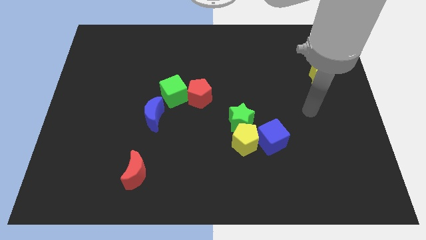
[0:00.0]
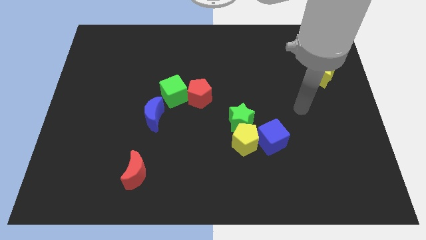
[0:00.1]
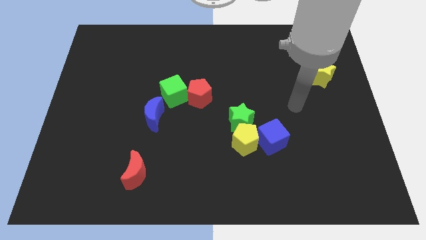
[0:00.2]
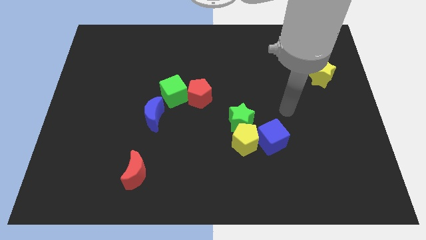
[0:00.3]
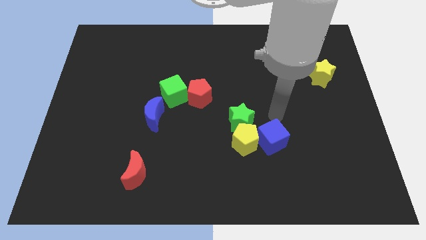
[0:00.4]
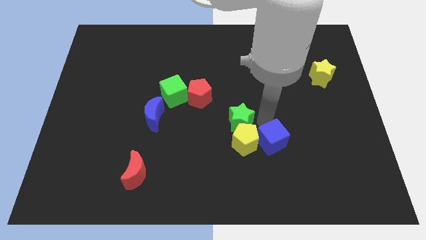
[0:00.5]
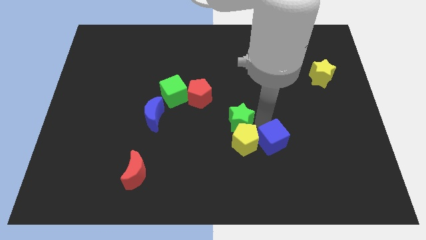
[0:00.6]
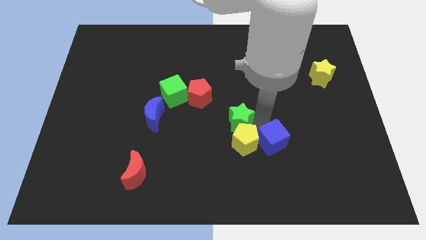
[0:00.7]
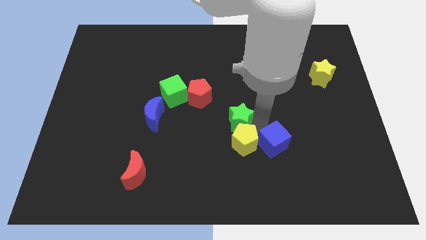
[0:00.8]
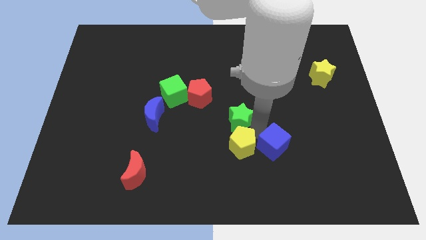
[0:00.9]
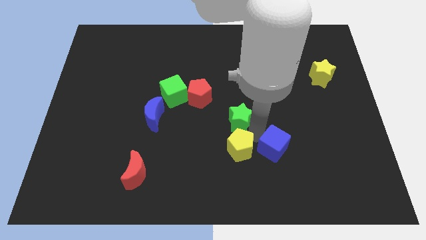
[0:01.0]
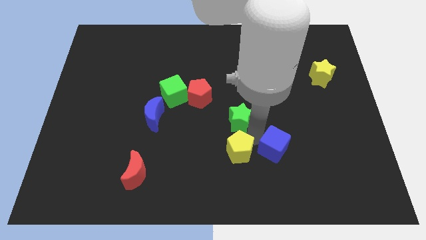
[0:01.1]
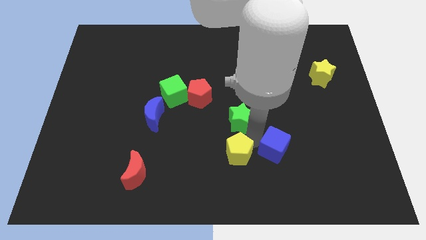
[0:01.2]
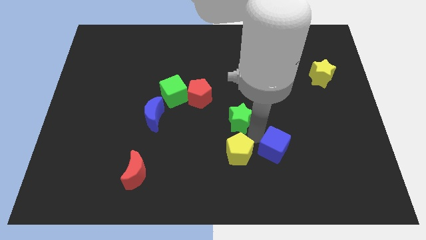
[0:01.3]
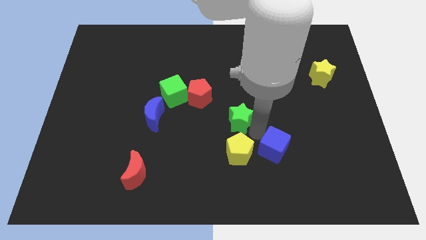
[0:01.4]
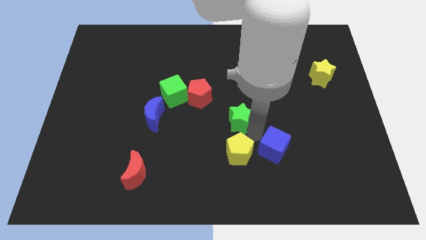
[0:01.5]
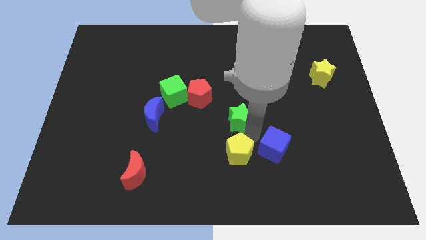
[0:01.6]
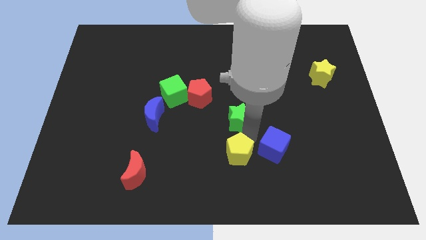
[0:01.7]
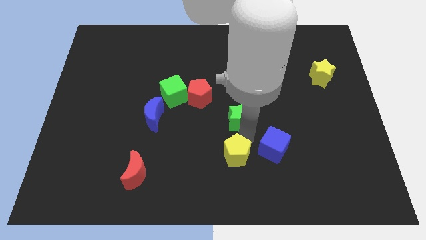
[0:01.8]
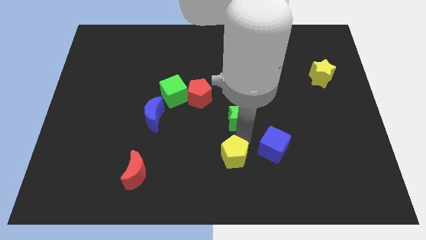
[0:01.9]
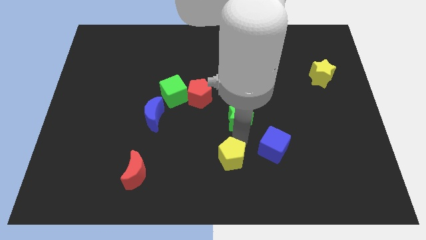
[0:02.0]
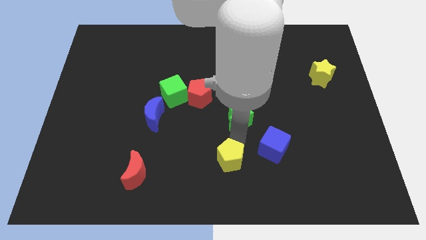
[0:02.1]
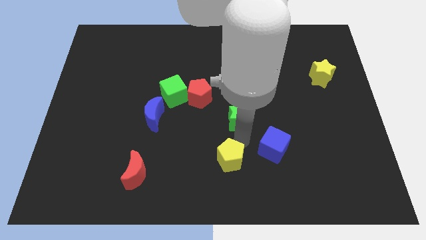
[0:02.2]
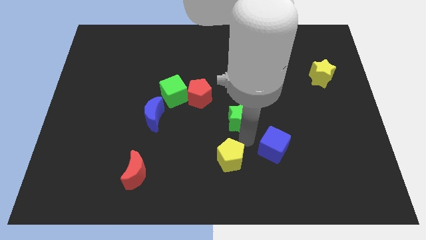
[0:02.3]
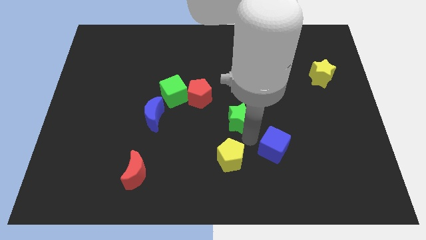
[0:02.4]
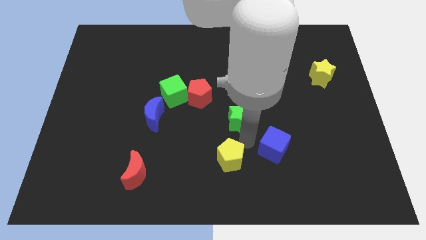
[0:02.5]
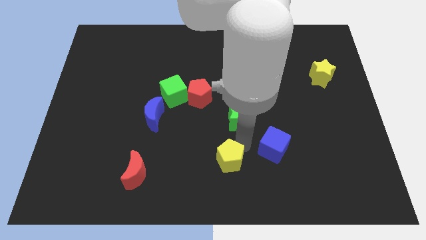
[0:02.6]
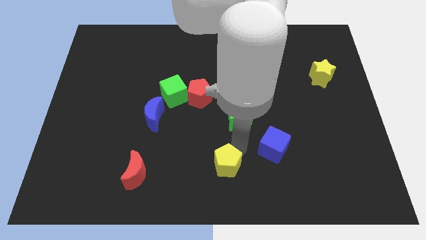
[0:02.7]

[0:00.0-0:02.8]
pull the yellow pentagon apart from the green star and blue cube

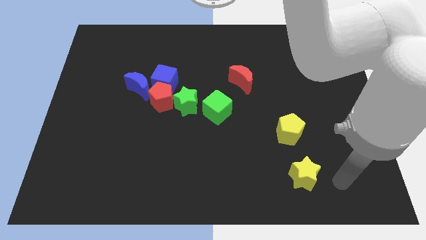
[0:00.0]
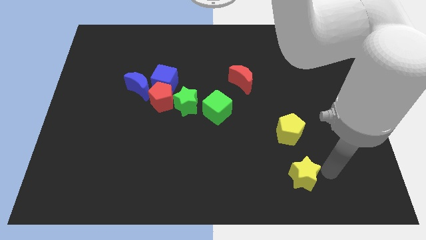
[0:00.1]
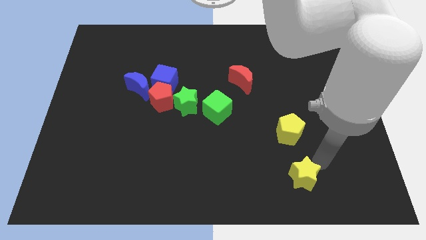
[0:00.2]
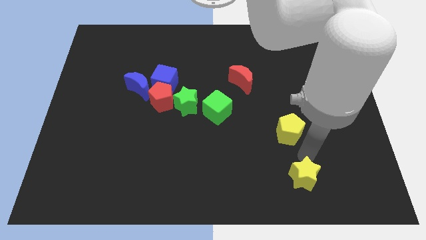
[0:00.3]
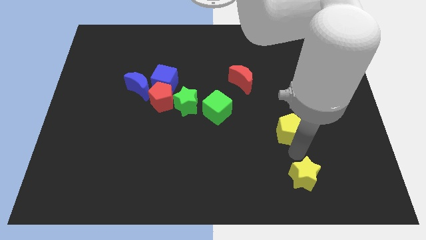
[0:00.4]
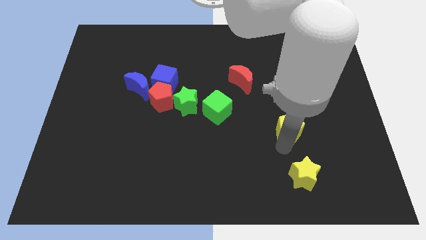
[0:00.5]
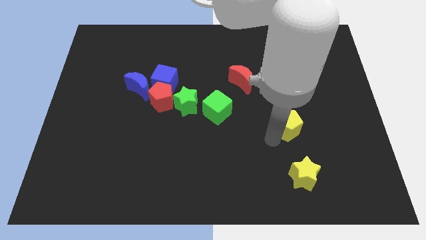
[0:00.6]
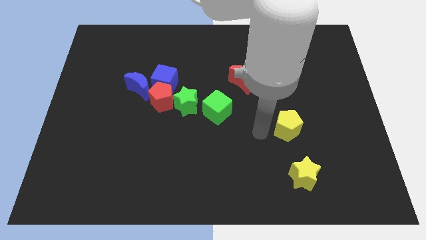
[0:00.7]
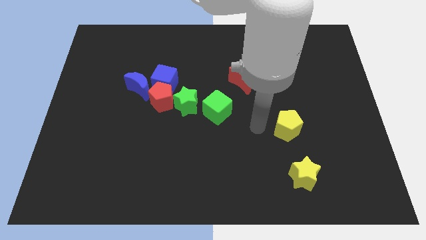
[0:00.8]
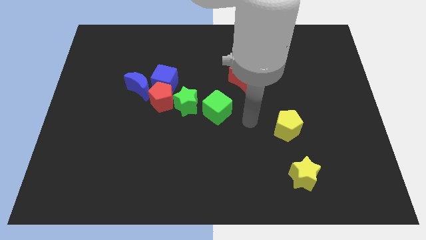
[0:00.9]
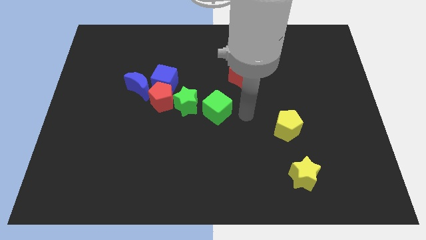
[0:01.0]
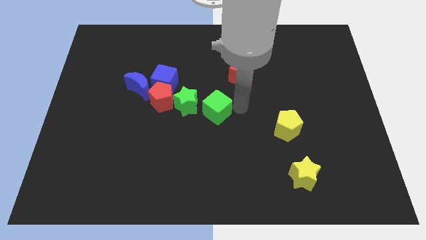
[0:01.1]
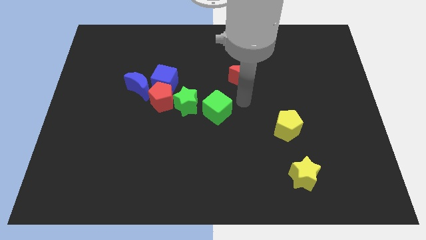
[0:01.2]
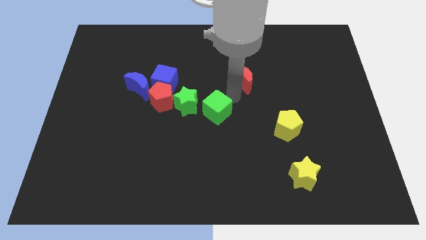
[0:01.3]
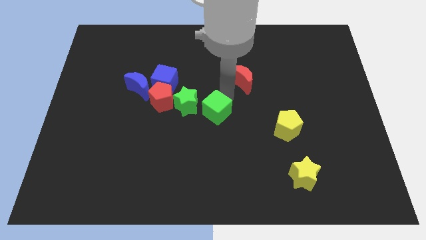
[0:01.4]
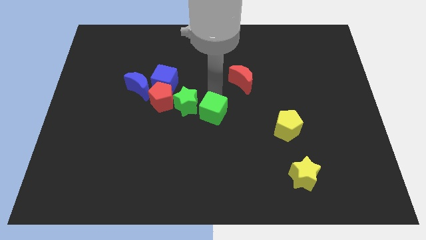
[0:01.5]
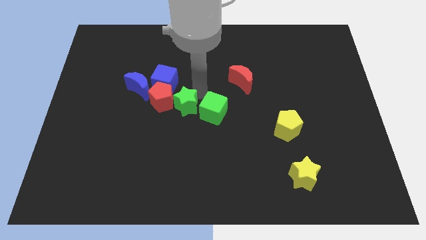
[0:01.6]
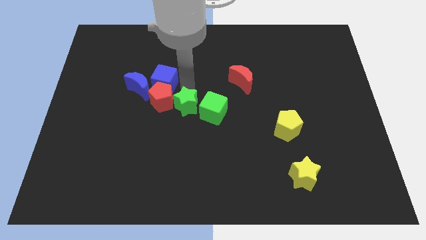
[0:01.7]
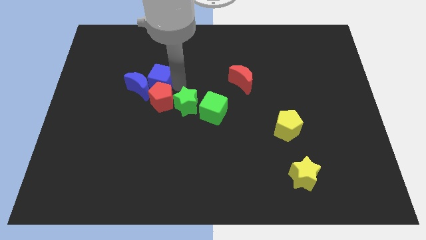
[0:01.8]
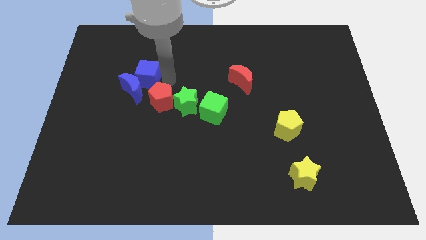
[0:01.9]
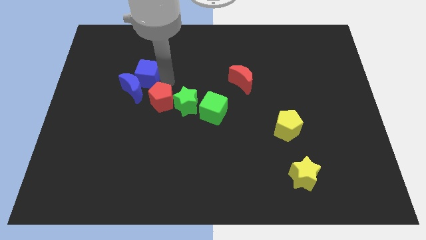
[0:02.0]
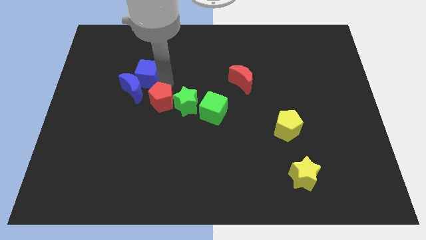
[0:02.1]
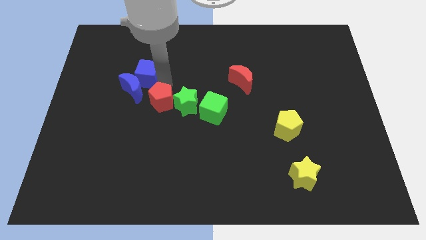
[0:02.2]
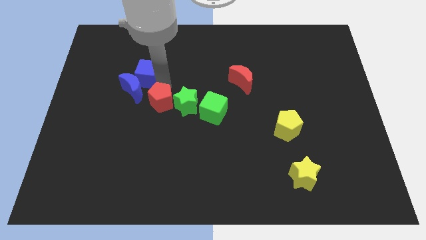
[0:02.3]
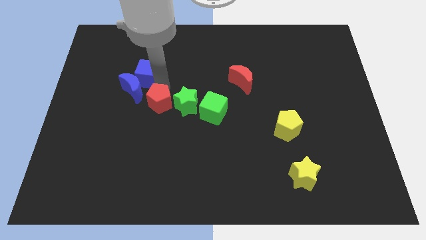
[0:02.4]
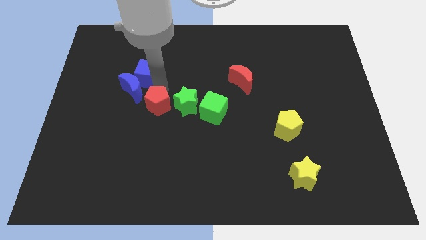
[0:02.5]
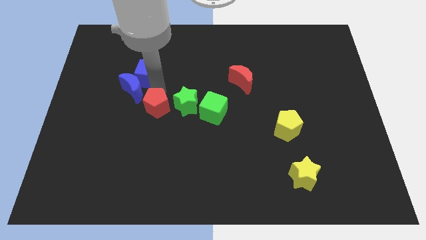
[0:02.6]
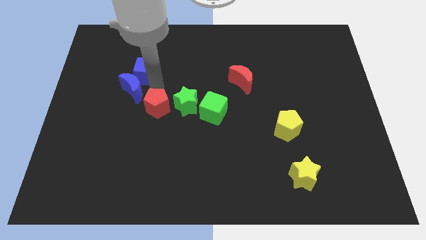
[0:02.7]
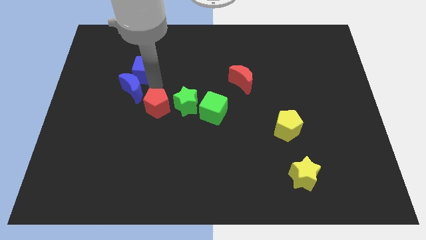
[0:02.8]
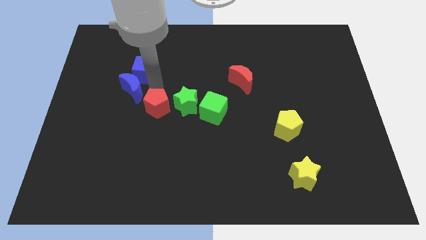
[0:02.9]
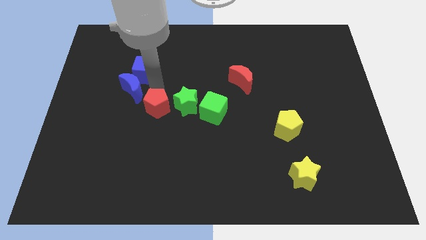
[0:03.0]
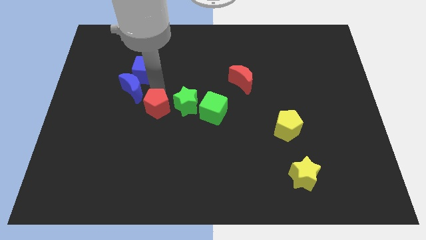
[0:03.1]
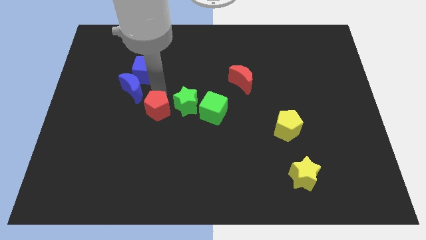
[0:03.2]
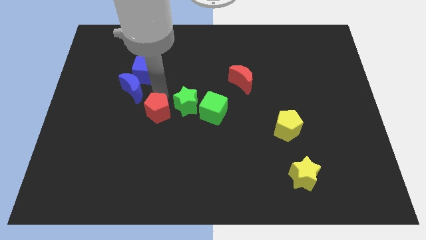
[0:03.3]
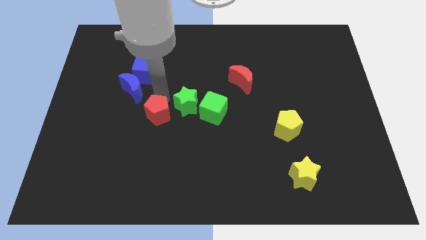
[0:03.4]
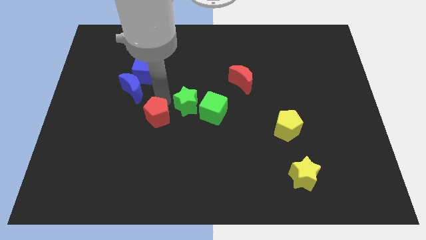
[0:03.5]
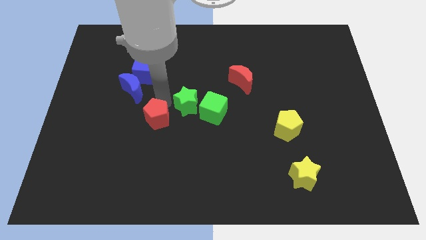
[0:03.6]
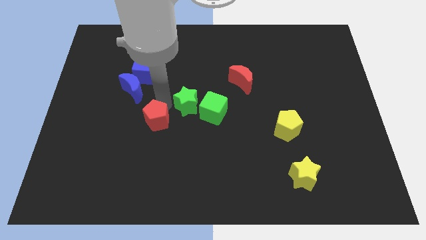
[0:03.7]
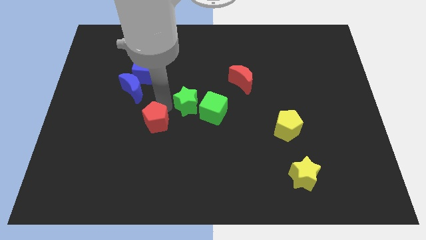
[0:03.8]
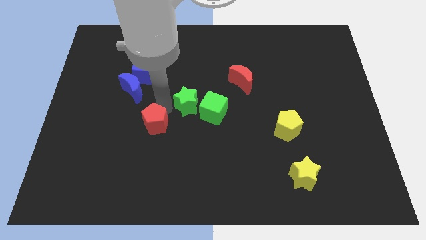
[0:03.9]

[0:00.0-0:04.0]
move the red pentagon away from the blue cube, green star, and blue moon

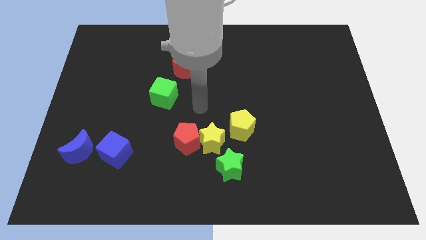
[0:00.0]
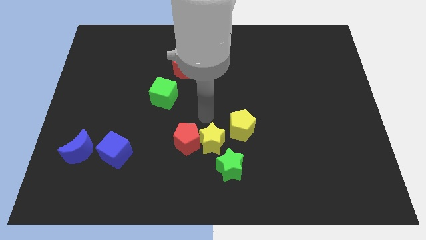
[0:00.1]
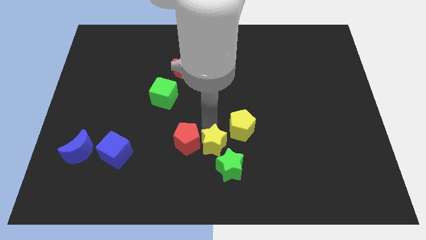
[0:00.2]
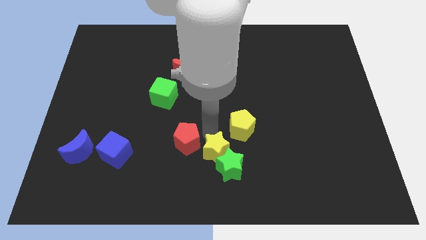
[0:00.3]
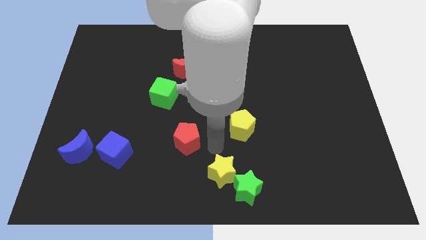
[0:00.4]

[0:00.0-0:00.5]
separate the red pentagon from the yellow star

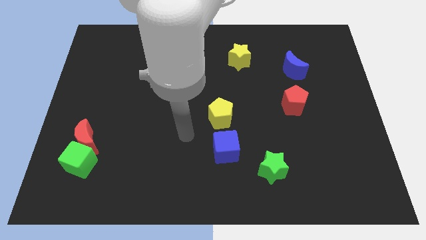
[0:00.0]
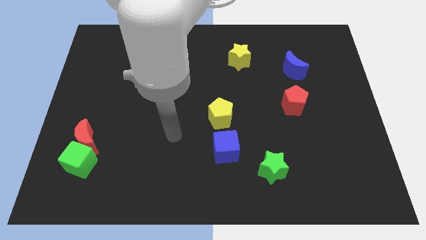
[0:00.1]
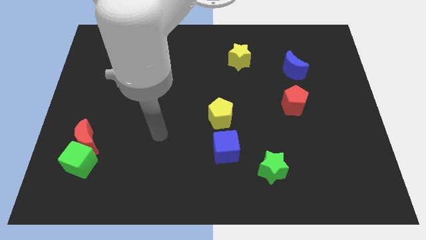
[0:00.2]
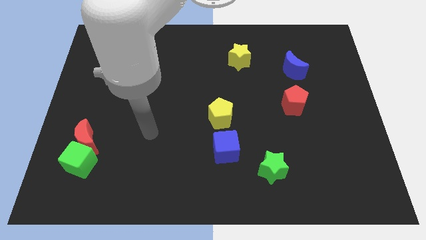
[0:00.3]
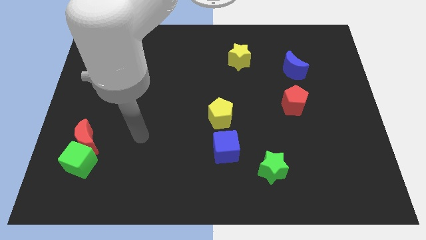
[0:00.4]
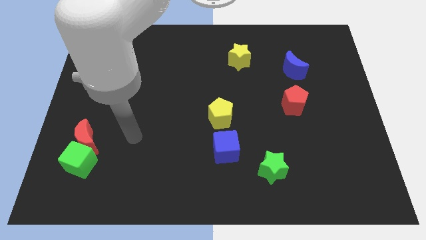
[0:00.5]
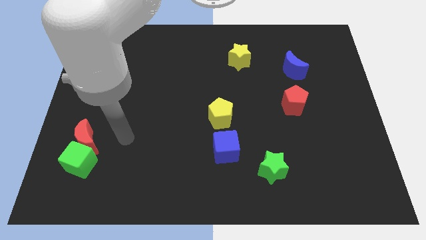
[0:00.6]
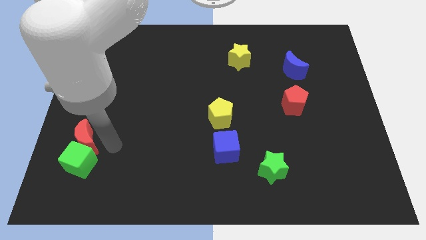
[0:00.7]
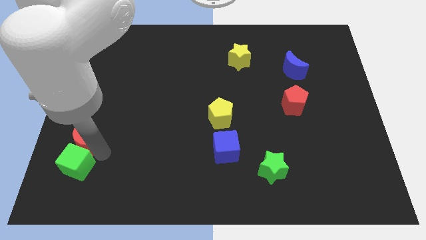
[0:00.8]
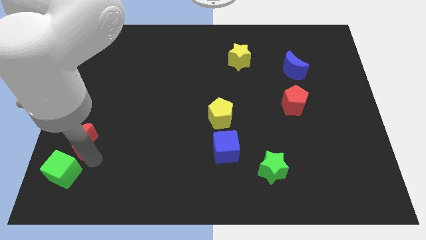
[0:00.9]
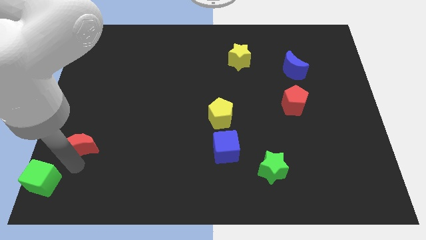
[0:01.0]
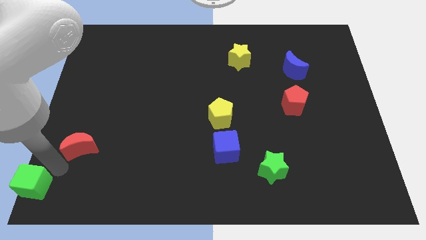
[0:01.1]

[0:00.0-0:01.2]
pull the red moon apart from the green cube

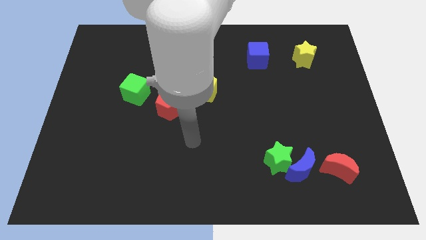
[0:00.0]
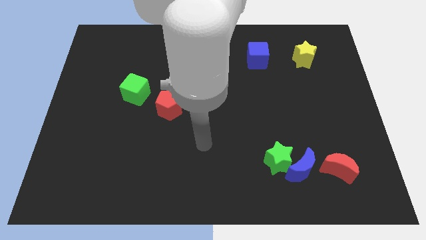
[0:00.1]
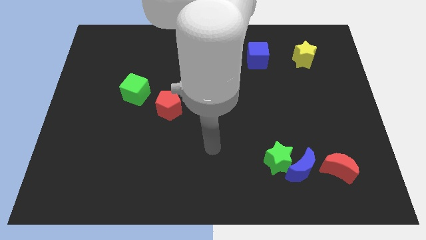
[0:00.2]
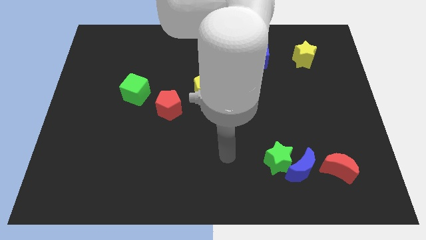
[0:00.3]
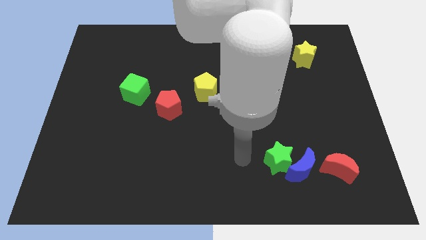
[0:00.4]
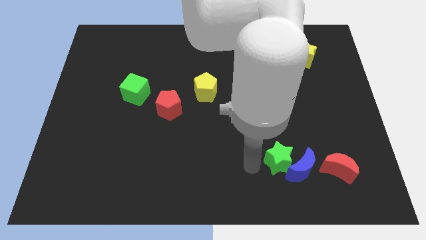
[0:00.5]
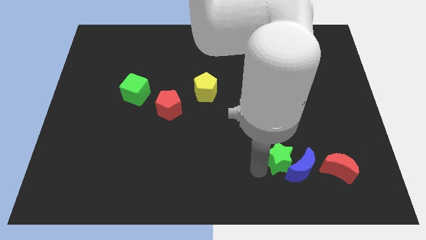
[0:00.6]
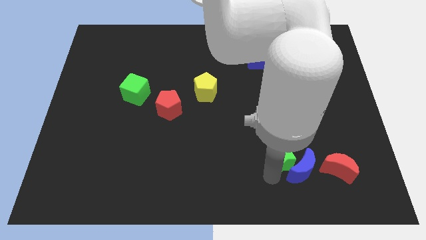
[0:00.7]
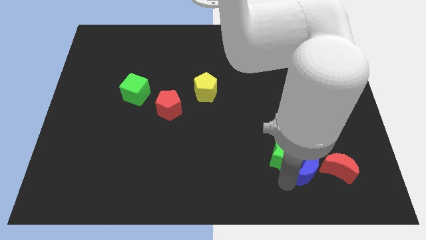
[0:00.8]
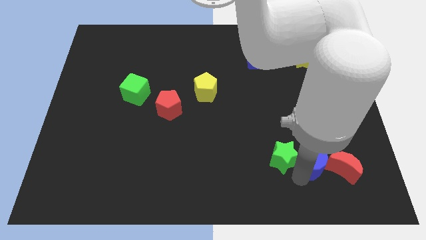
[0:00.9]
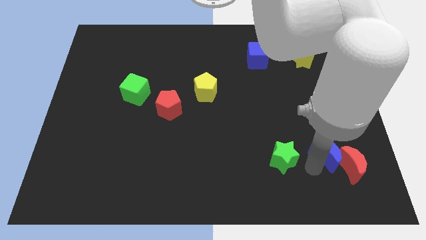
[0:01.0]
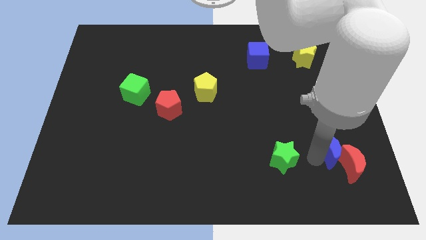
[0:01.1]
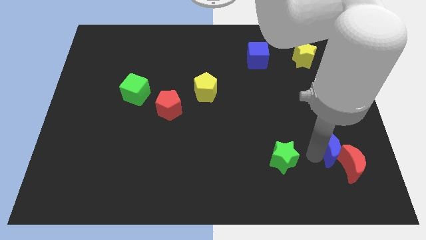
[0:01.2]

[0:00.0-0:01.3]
pull the green star apart from the blue moon
